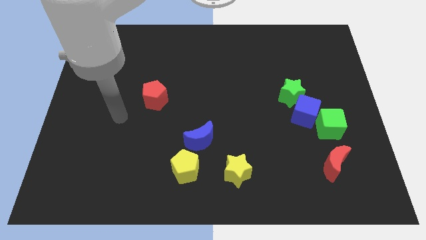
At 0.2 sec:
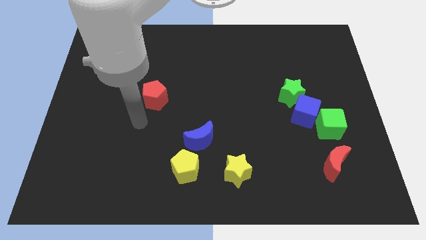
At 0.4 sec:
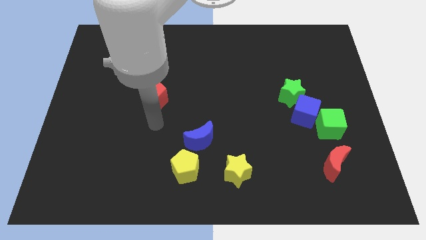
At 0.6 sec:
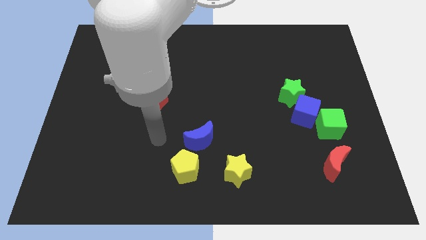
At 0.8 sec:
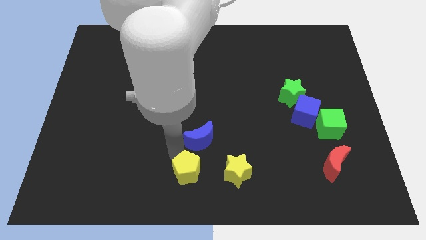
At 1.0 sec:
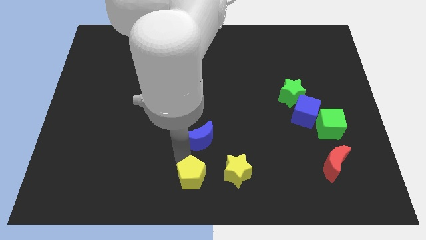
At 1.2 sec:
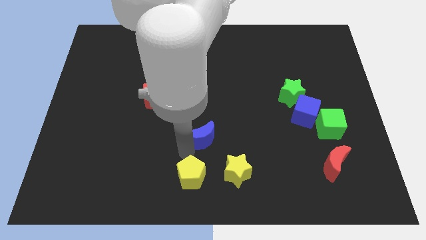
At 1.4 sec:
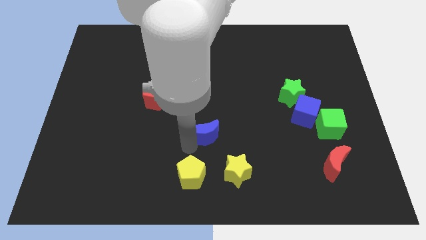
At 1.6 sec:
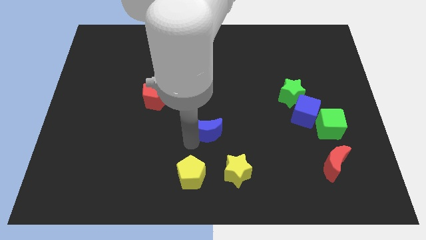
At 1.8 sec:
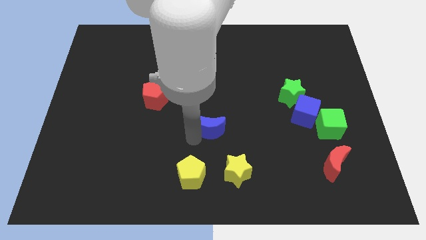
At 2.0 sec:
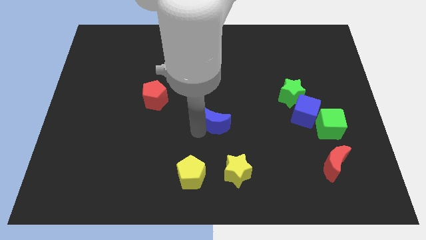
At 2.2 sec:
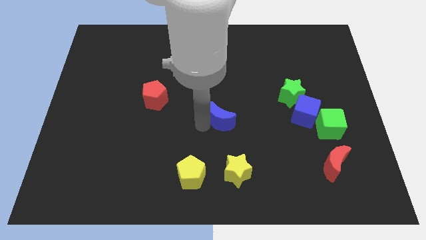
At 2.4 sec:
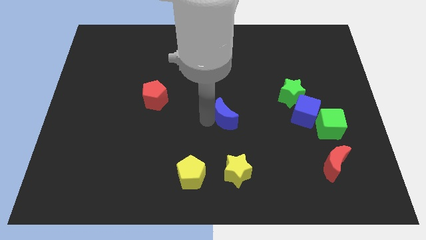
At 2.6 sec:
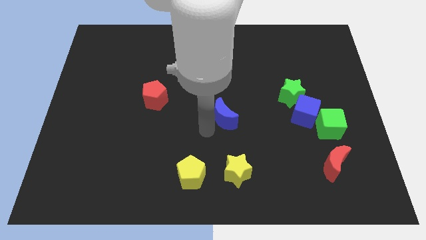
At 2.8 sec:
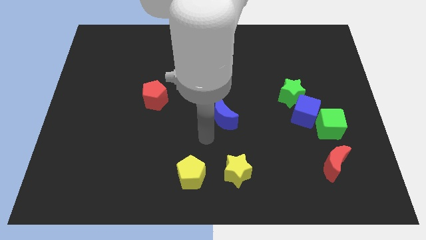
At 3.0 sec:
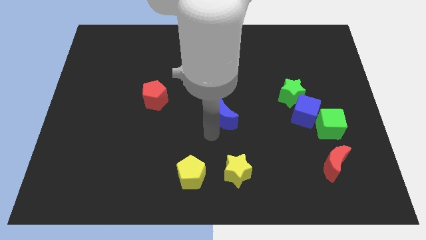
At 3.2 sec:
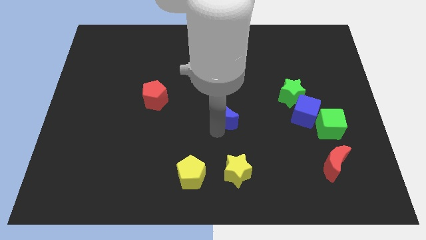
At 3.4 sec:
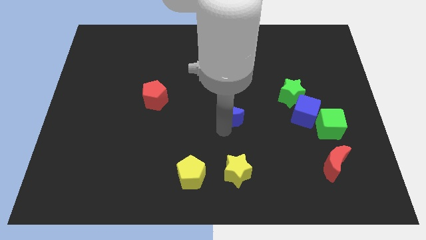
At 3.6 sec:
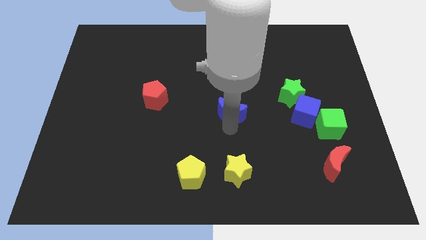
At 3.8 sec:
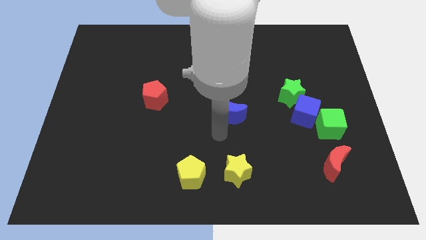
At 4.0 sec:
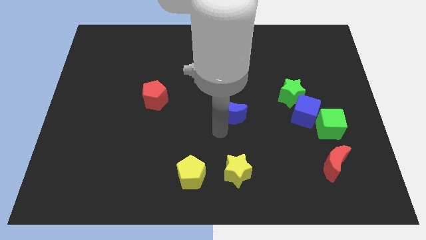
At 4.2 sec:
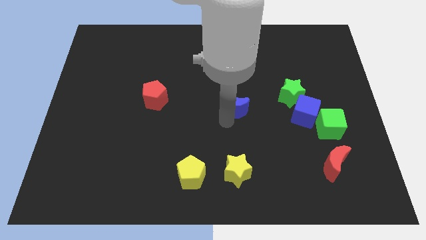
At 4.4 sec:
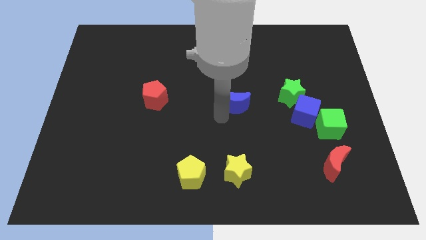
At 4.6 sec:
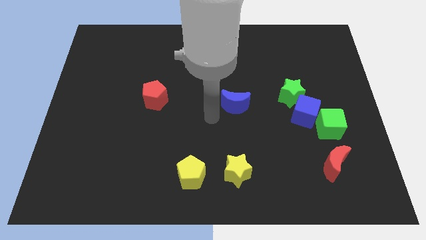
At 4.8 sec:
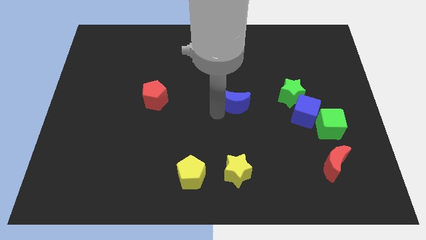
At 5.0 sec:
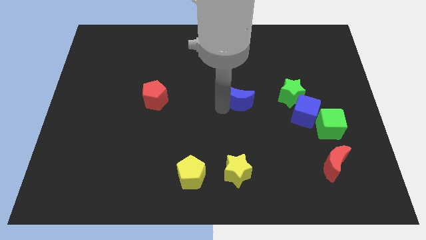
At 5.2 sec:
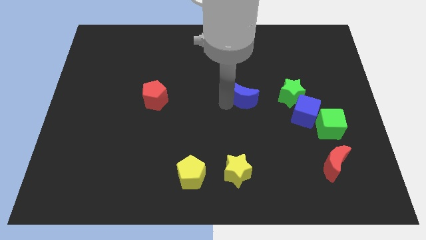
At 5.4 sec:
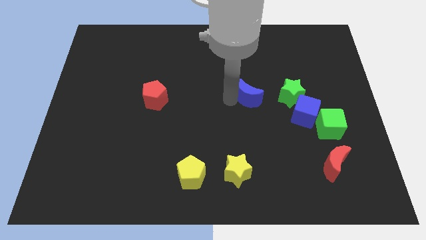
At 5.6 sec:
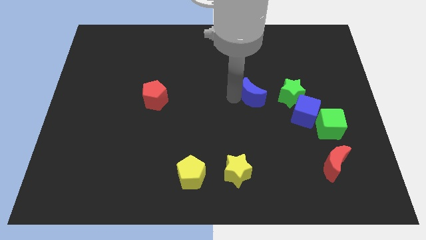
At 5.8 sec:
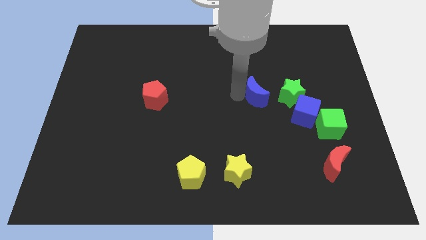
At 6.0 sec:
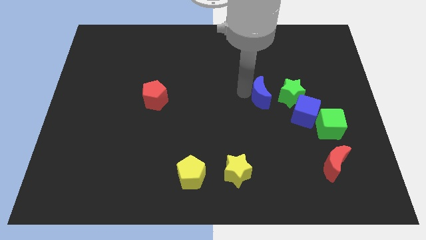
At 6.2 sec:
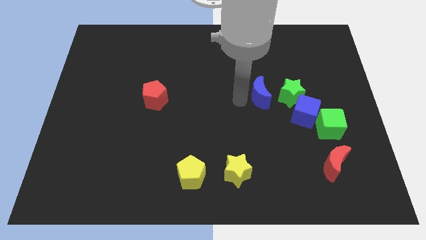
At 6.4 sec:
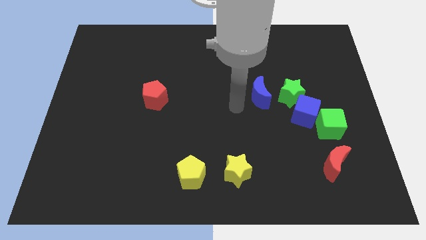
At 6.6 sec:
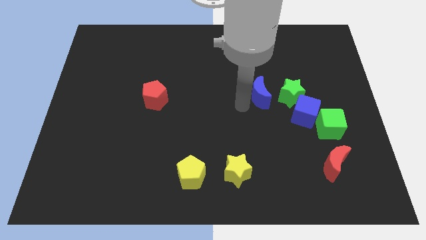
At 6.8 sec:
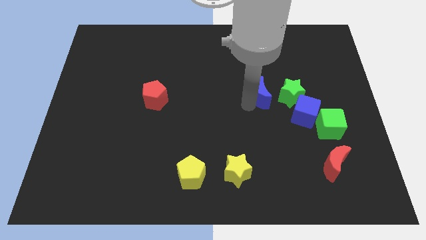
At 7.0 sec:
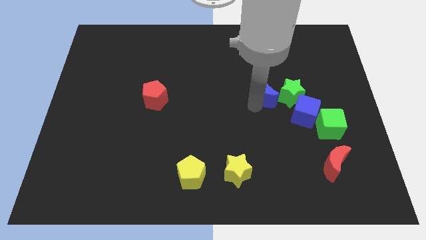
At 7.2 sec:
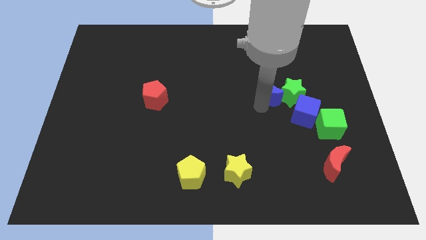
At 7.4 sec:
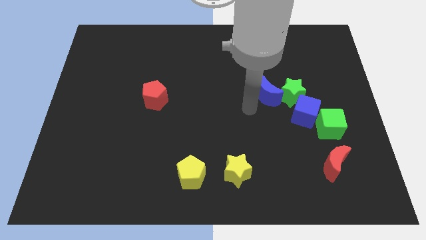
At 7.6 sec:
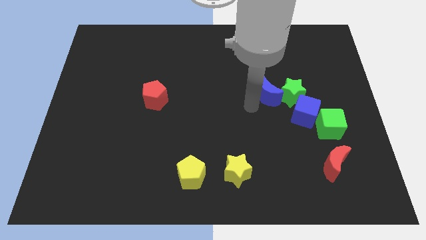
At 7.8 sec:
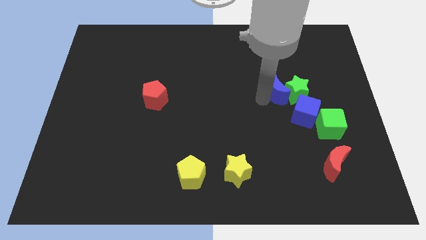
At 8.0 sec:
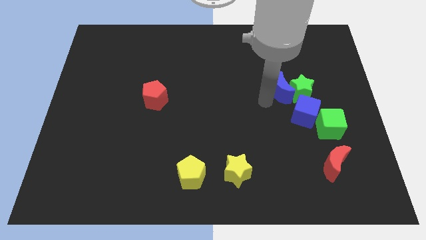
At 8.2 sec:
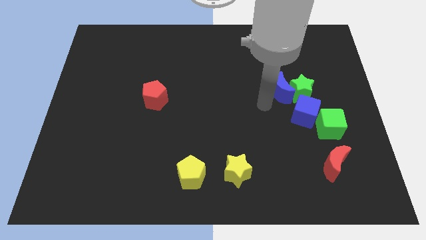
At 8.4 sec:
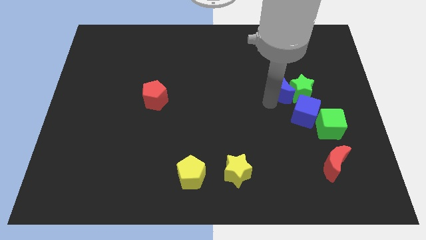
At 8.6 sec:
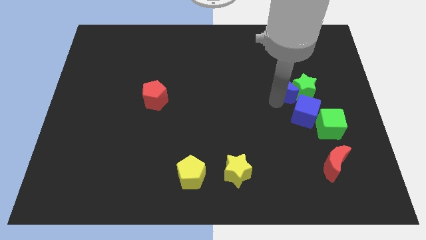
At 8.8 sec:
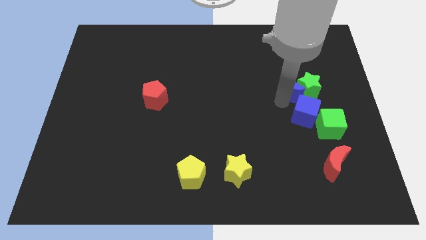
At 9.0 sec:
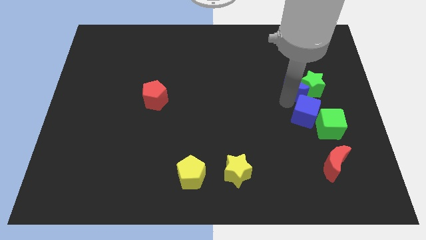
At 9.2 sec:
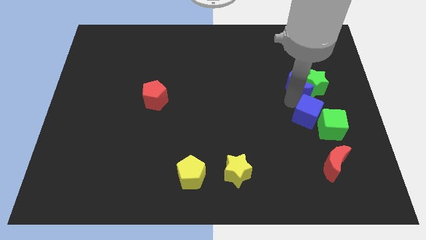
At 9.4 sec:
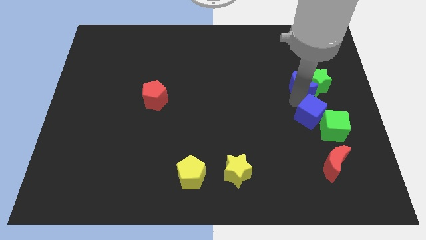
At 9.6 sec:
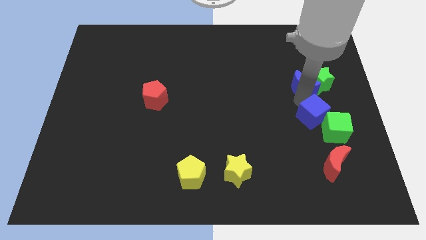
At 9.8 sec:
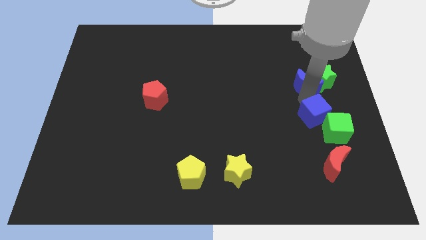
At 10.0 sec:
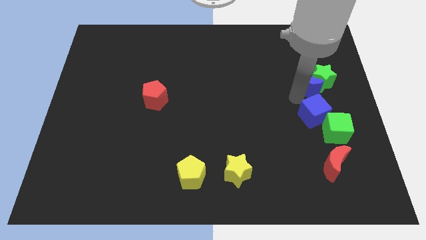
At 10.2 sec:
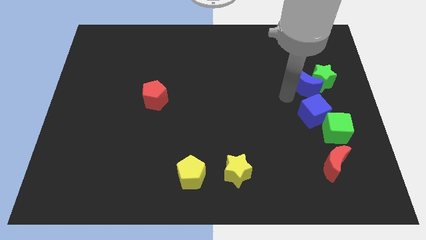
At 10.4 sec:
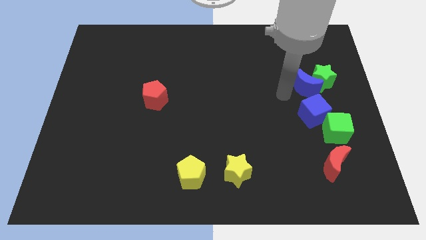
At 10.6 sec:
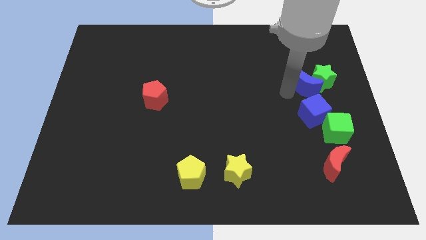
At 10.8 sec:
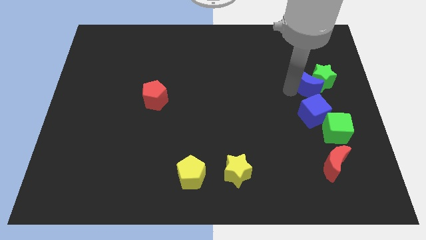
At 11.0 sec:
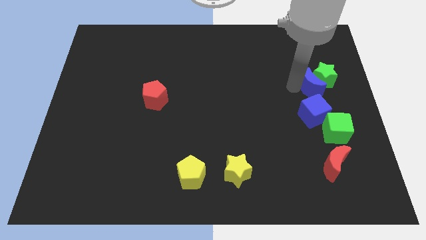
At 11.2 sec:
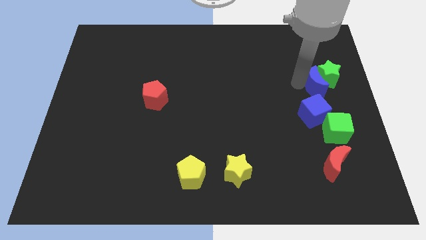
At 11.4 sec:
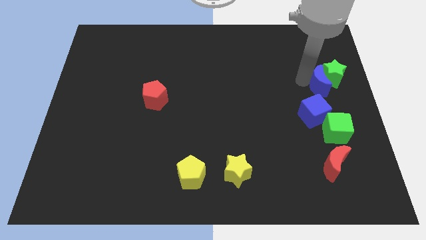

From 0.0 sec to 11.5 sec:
move the blue moon to the right side

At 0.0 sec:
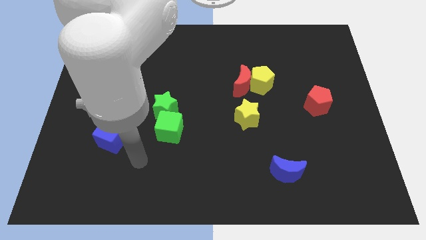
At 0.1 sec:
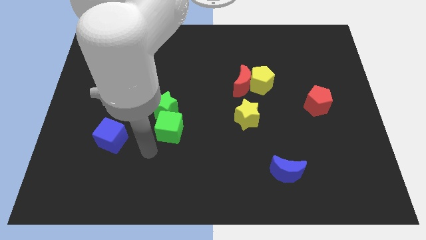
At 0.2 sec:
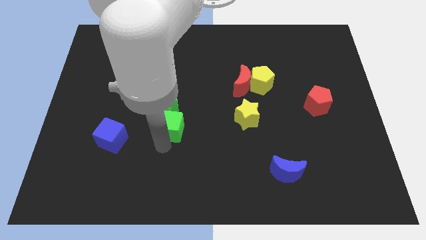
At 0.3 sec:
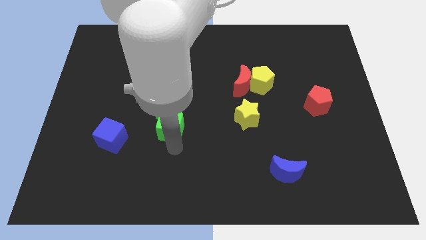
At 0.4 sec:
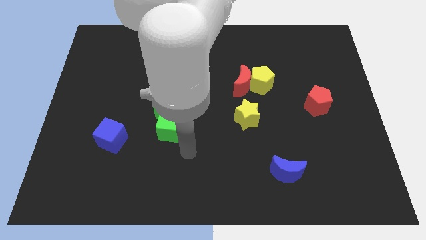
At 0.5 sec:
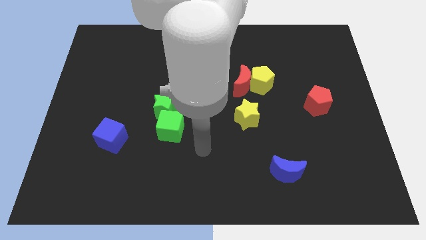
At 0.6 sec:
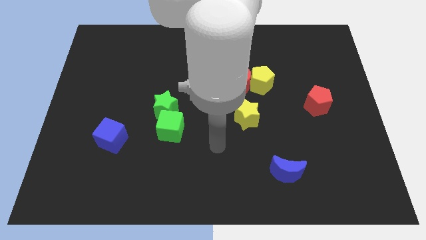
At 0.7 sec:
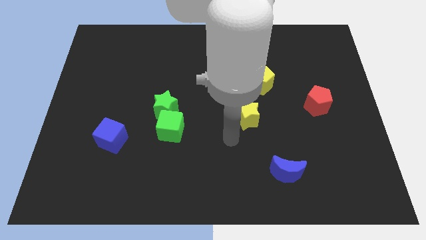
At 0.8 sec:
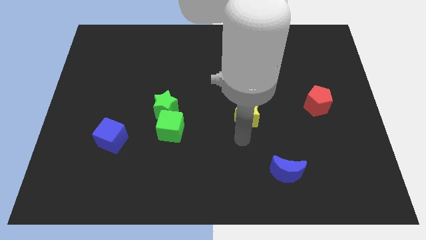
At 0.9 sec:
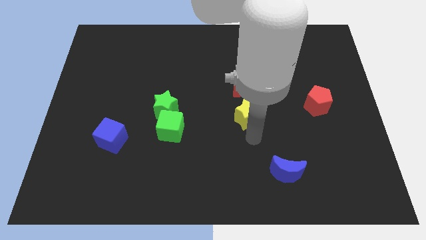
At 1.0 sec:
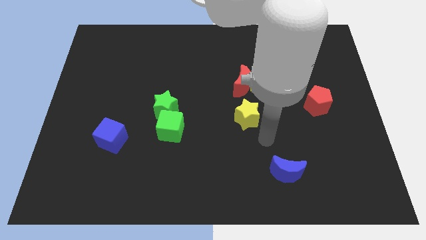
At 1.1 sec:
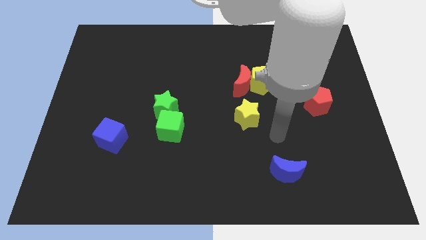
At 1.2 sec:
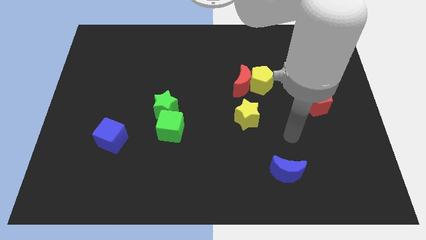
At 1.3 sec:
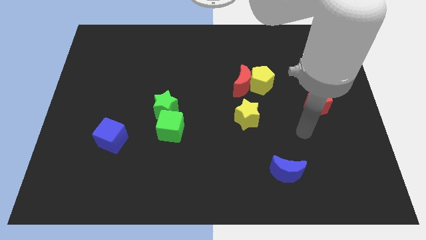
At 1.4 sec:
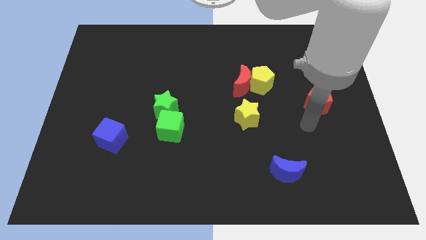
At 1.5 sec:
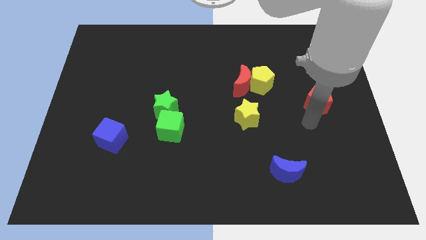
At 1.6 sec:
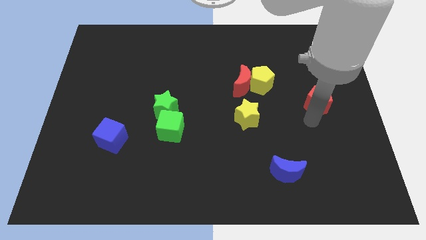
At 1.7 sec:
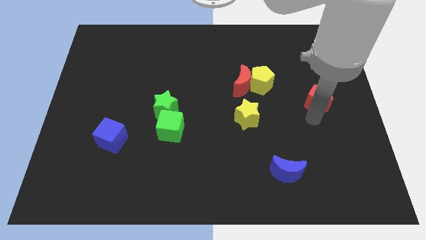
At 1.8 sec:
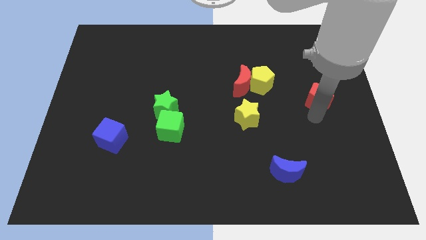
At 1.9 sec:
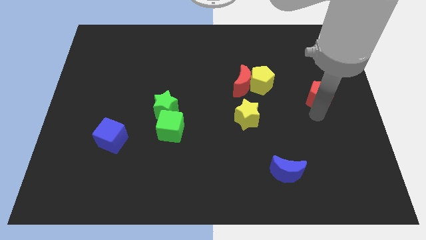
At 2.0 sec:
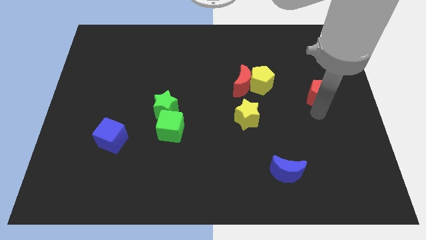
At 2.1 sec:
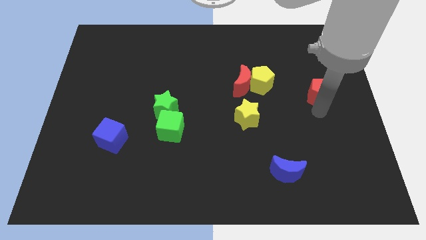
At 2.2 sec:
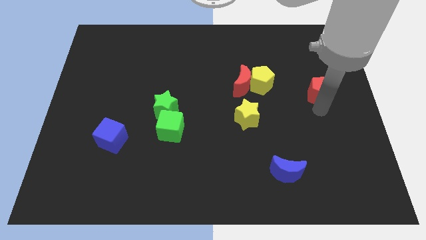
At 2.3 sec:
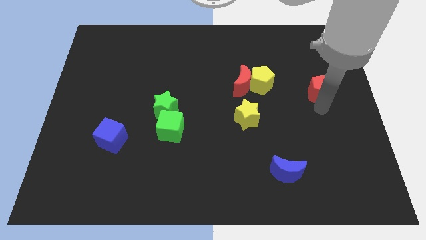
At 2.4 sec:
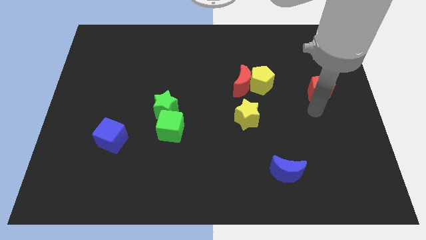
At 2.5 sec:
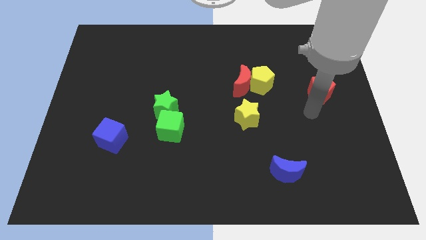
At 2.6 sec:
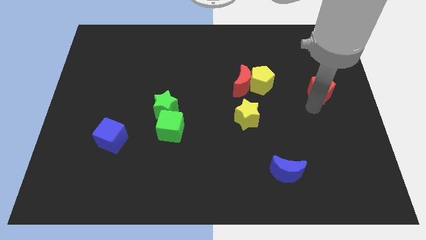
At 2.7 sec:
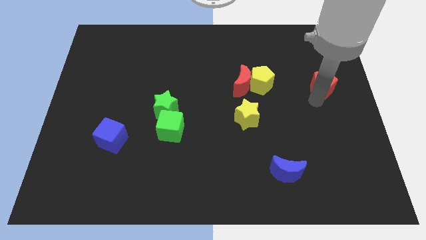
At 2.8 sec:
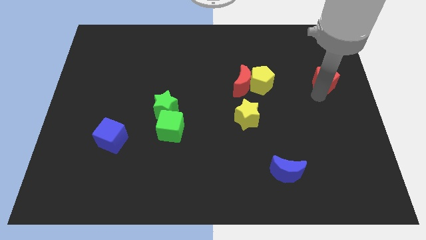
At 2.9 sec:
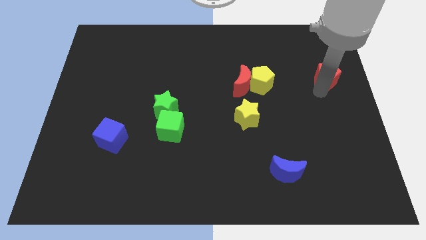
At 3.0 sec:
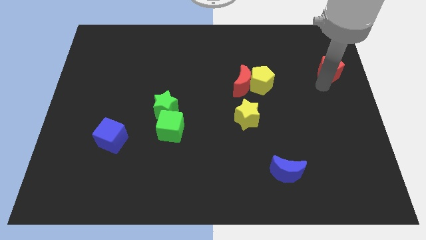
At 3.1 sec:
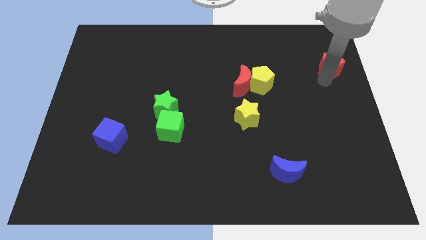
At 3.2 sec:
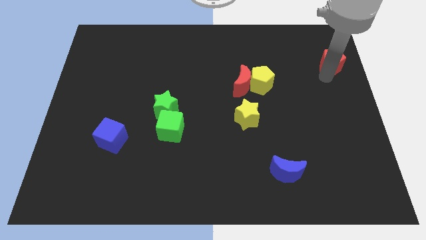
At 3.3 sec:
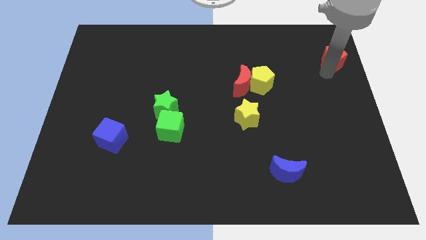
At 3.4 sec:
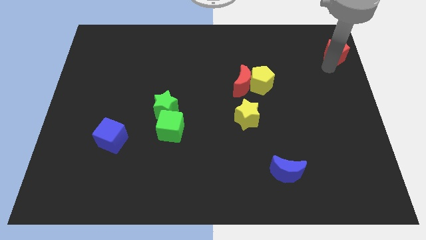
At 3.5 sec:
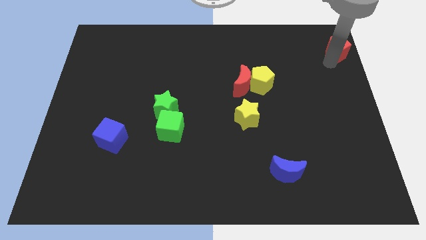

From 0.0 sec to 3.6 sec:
put the red pentagon to the top right of the board
